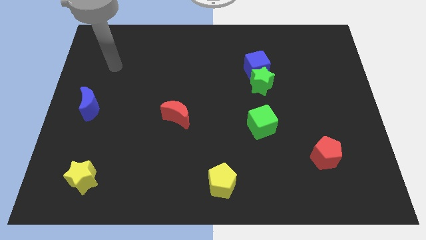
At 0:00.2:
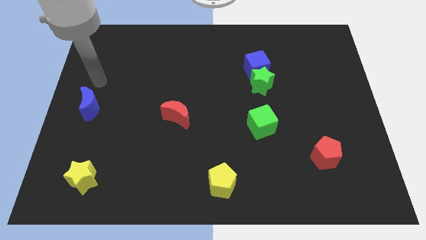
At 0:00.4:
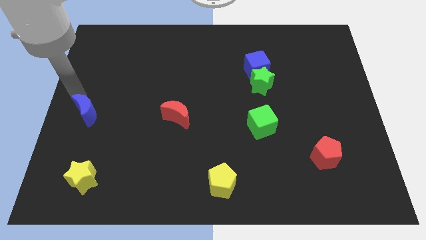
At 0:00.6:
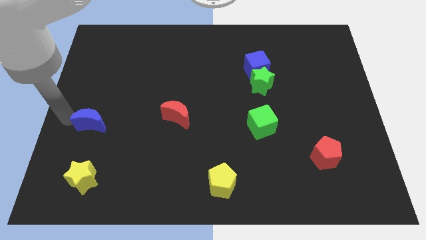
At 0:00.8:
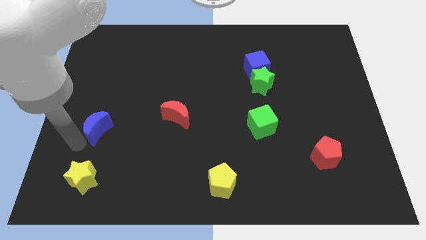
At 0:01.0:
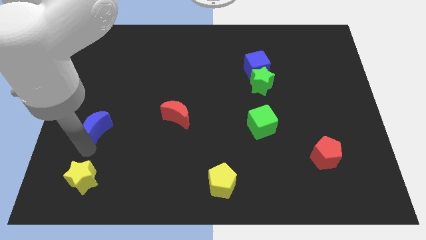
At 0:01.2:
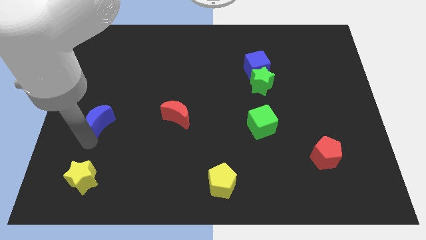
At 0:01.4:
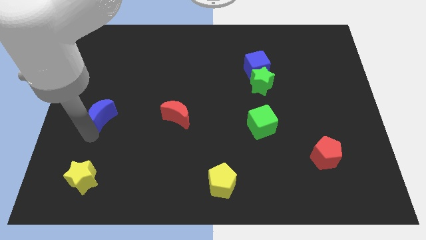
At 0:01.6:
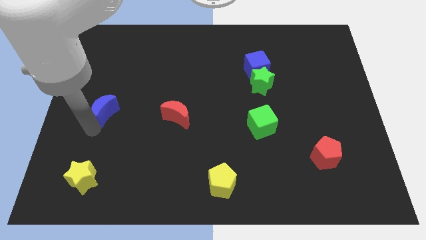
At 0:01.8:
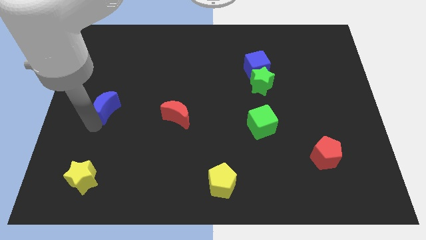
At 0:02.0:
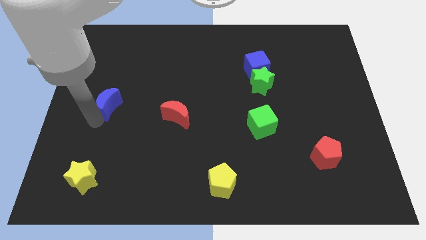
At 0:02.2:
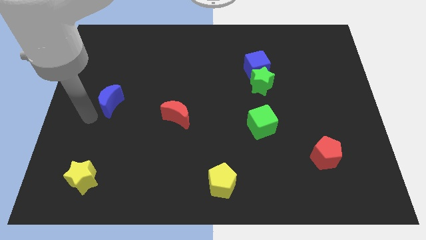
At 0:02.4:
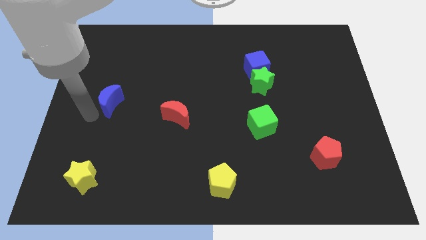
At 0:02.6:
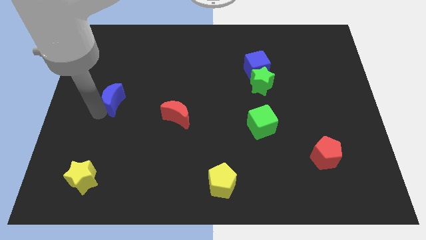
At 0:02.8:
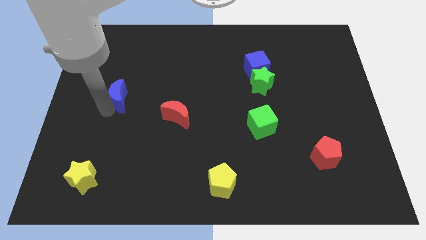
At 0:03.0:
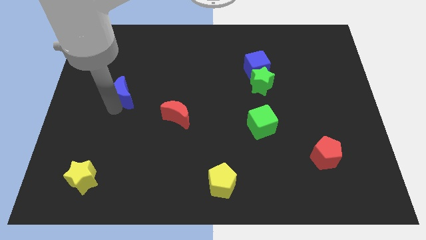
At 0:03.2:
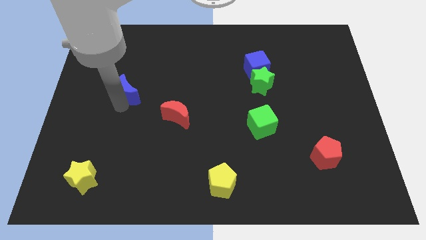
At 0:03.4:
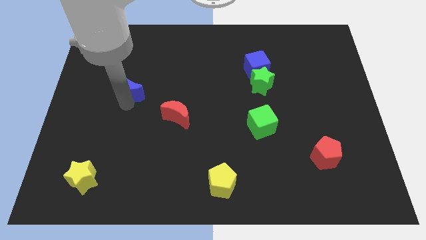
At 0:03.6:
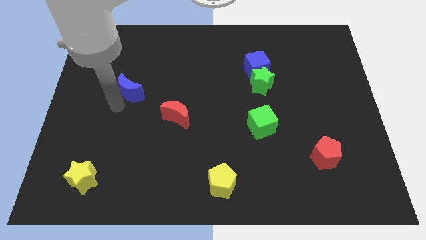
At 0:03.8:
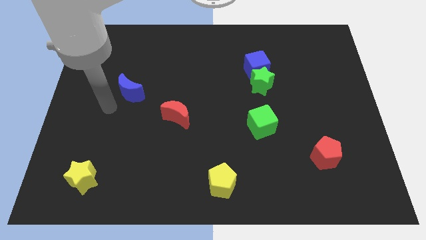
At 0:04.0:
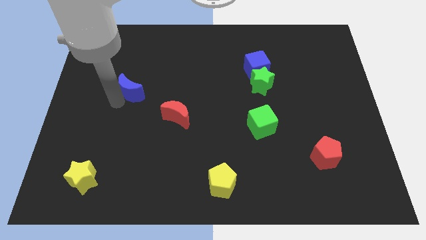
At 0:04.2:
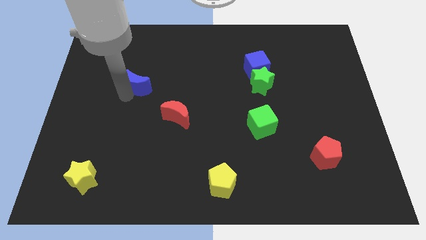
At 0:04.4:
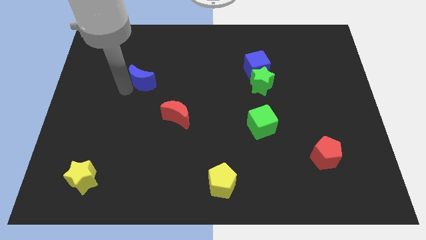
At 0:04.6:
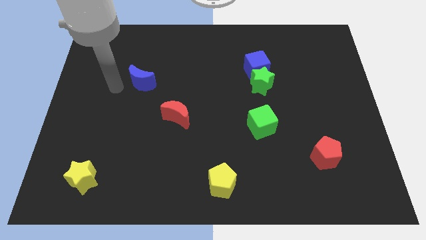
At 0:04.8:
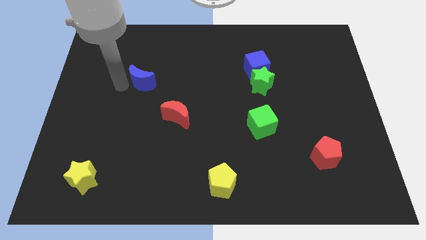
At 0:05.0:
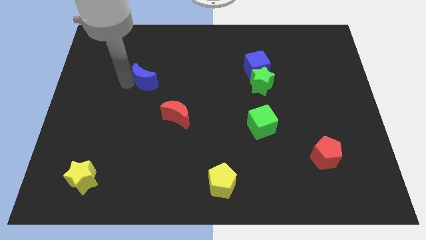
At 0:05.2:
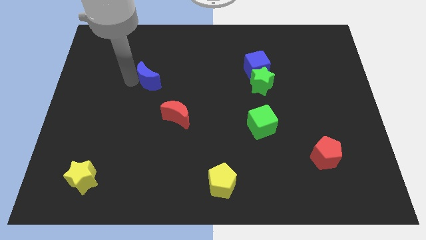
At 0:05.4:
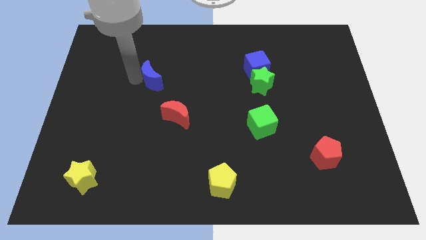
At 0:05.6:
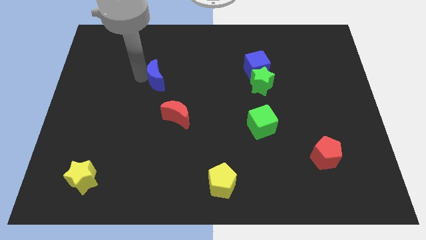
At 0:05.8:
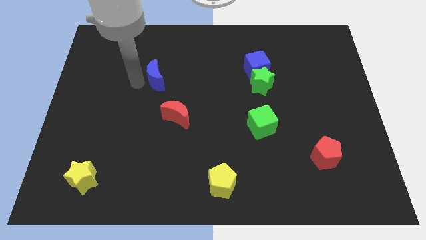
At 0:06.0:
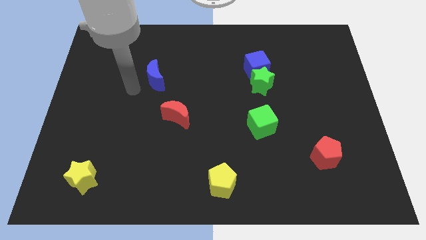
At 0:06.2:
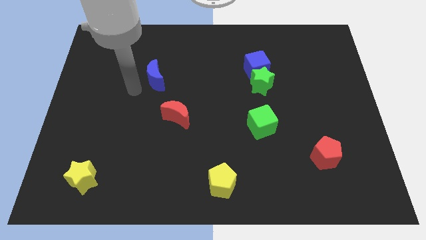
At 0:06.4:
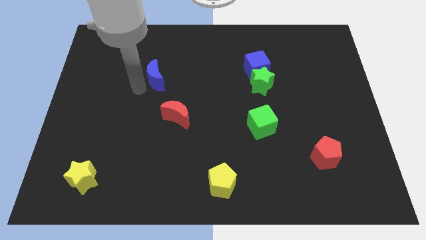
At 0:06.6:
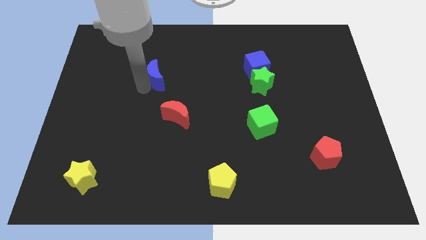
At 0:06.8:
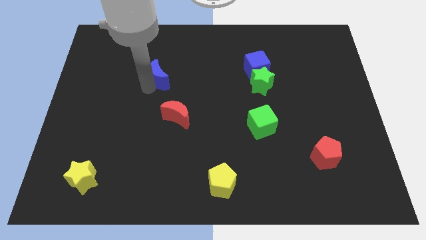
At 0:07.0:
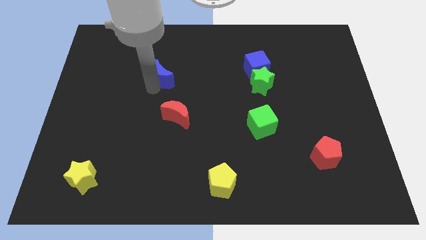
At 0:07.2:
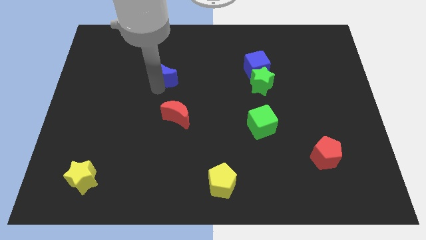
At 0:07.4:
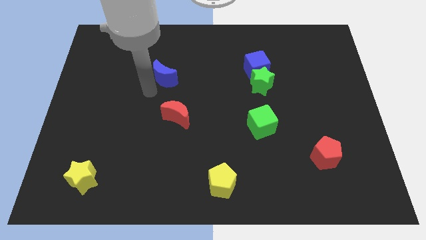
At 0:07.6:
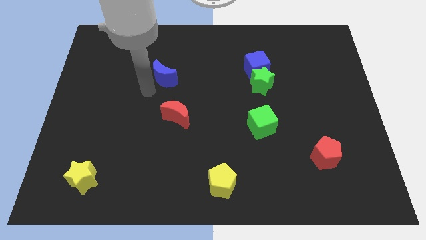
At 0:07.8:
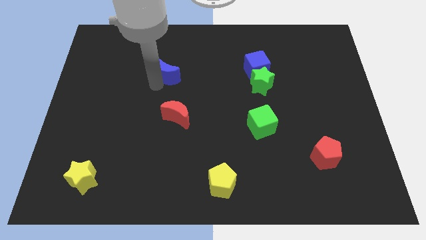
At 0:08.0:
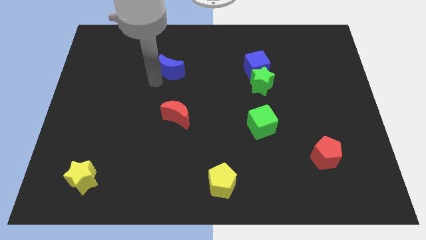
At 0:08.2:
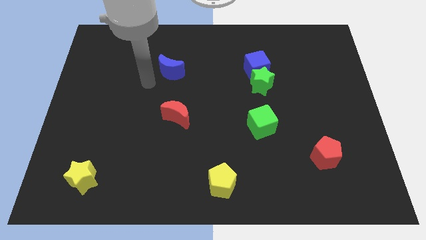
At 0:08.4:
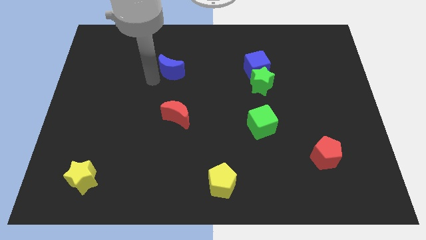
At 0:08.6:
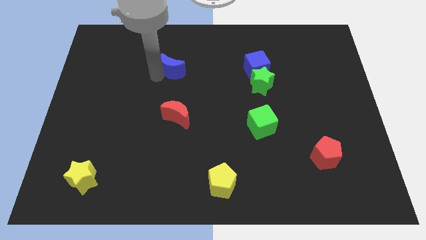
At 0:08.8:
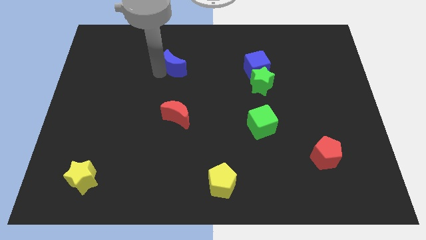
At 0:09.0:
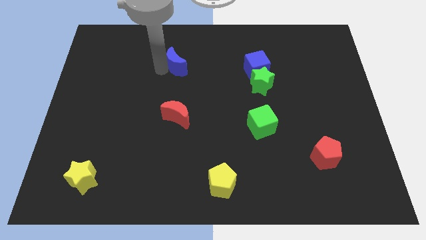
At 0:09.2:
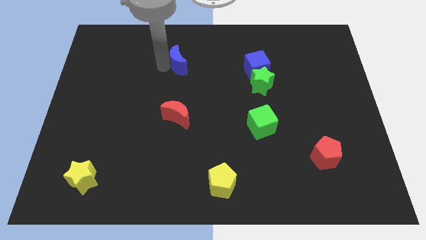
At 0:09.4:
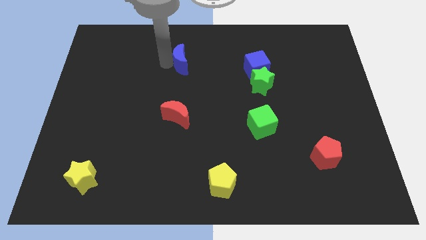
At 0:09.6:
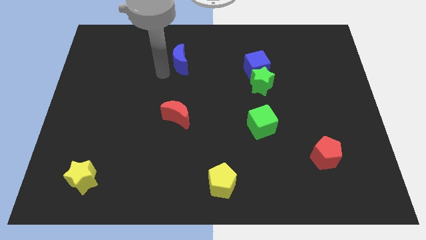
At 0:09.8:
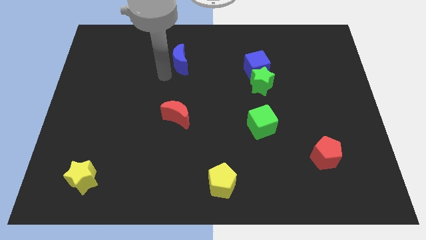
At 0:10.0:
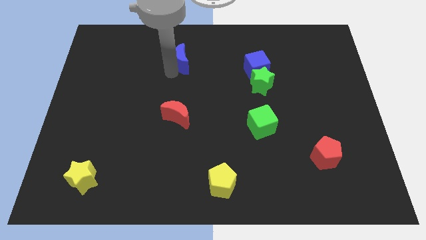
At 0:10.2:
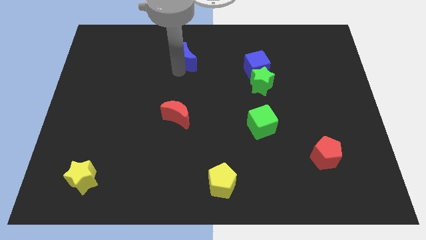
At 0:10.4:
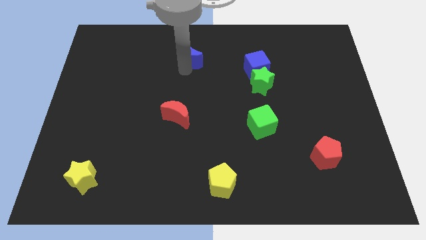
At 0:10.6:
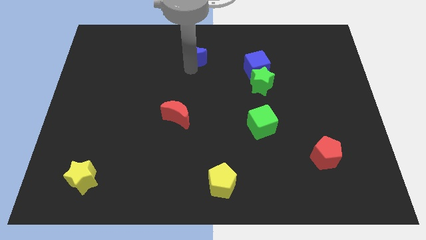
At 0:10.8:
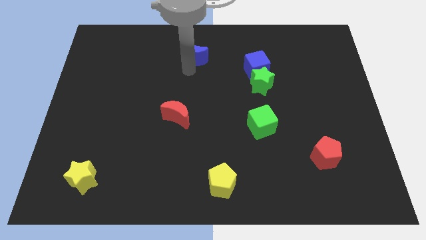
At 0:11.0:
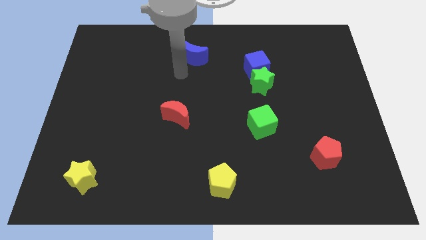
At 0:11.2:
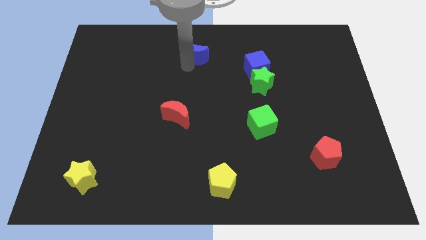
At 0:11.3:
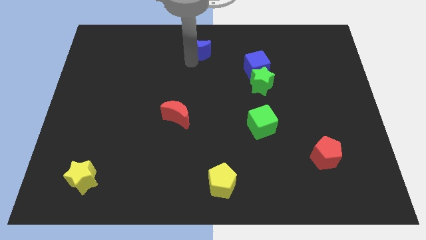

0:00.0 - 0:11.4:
push the blue moon to the towards your base
